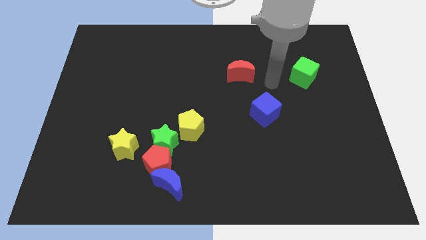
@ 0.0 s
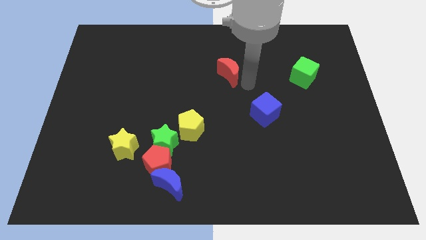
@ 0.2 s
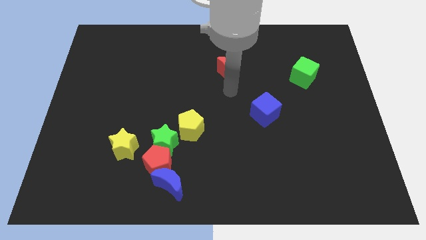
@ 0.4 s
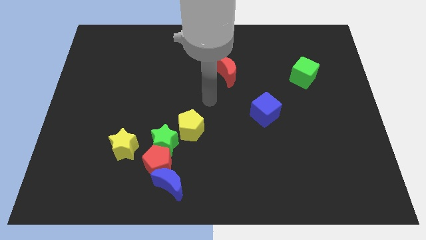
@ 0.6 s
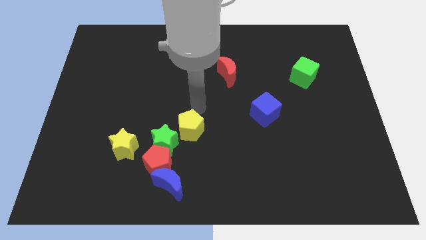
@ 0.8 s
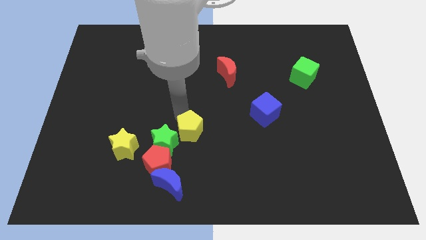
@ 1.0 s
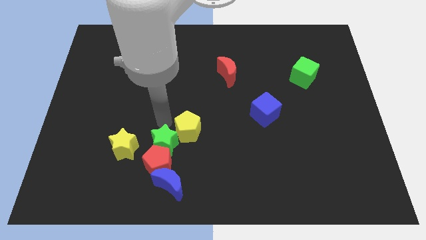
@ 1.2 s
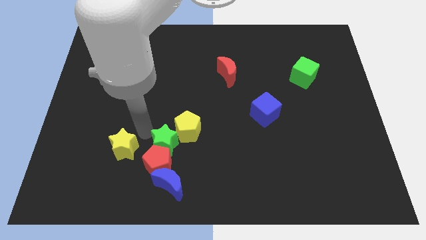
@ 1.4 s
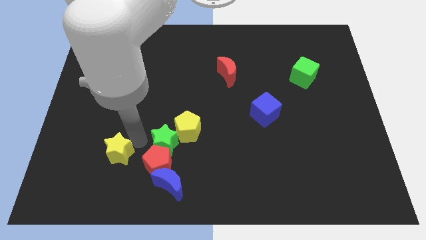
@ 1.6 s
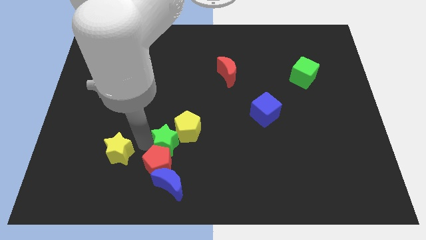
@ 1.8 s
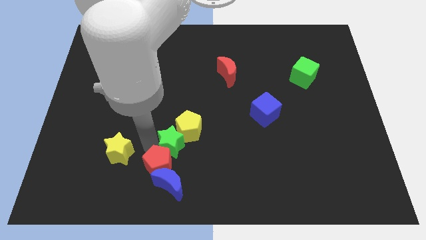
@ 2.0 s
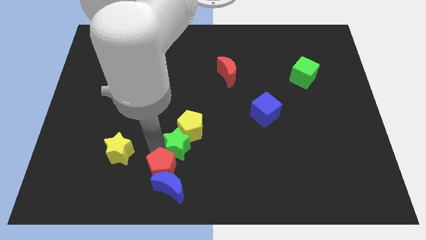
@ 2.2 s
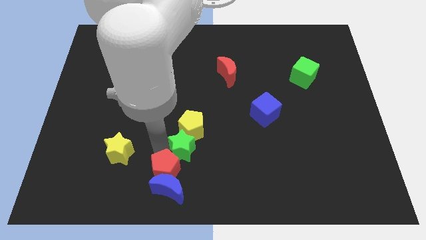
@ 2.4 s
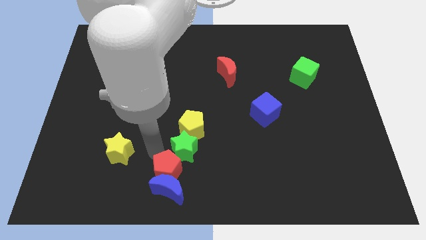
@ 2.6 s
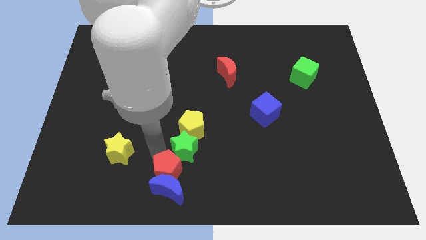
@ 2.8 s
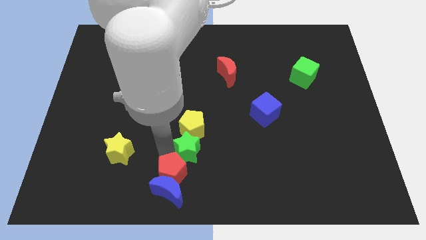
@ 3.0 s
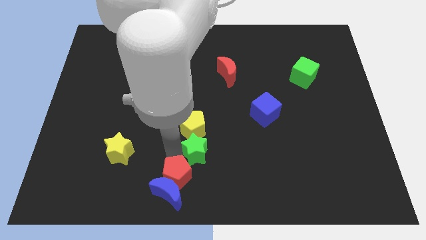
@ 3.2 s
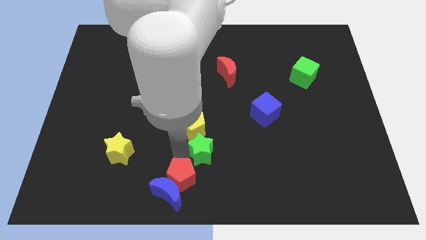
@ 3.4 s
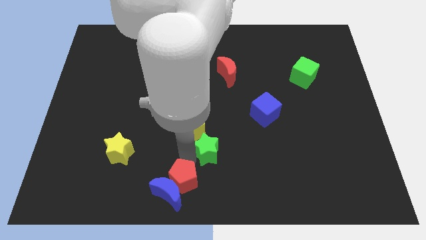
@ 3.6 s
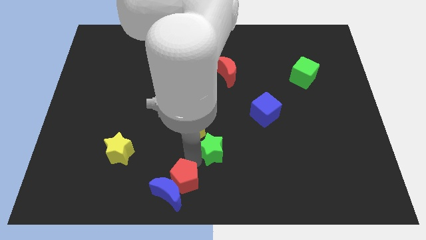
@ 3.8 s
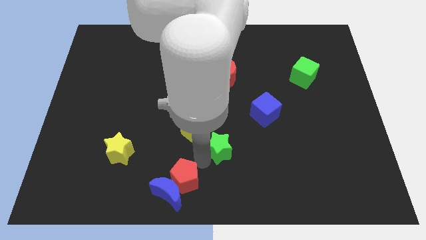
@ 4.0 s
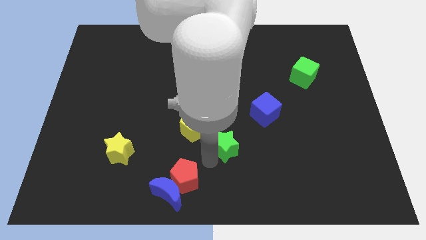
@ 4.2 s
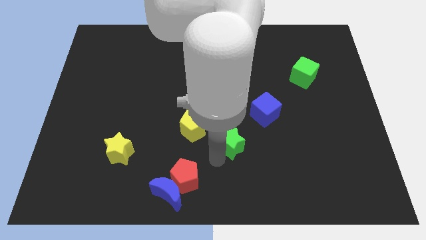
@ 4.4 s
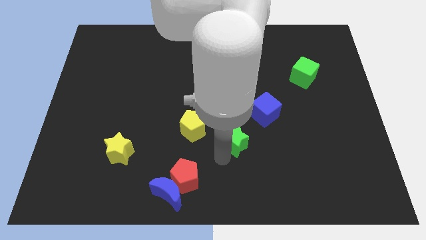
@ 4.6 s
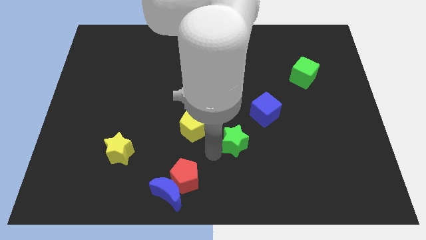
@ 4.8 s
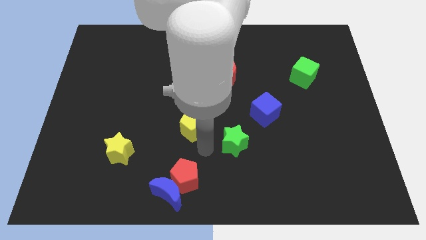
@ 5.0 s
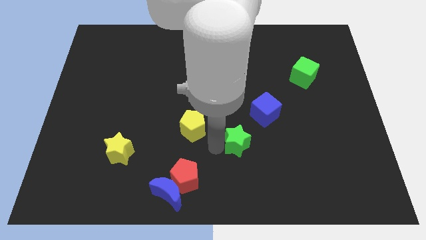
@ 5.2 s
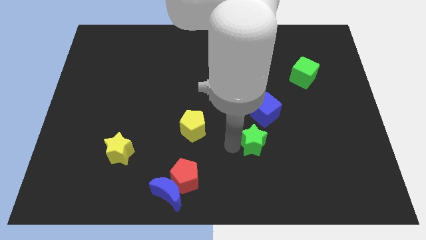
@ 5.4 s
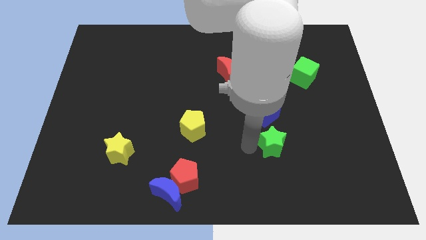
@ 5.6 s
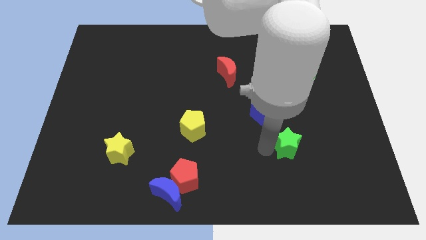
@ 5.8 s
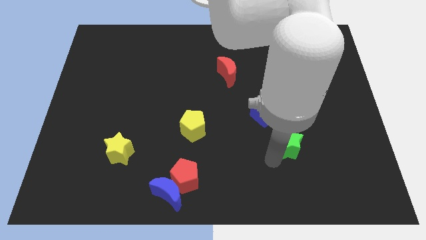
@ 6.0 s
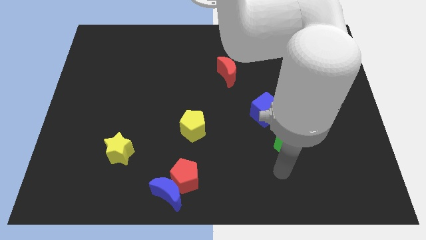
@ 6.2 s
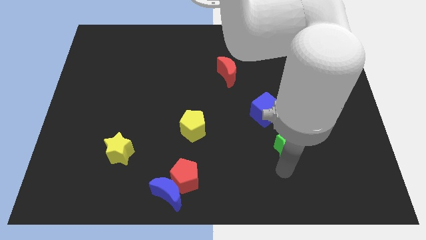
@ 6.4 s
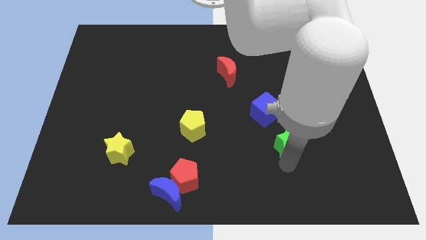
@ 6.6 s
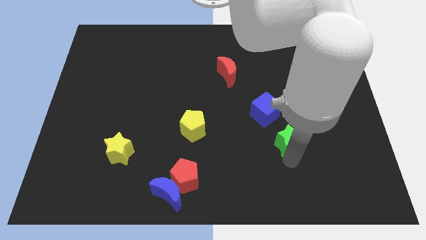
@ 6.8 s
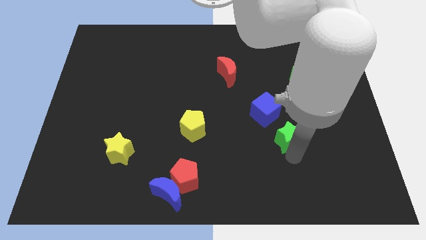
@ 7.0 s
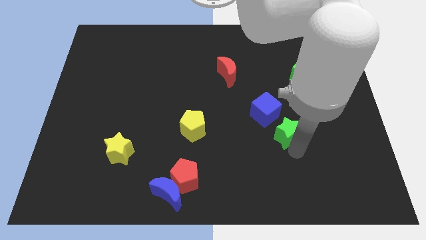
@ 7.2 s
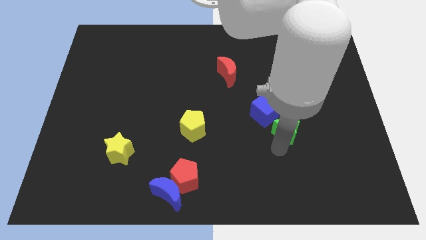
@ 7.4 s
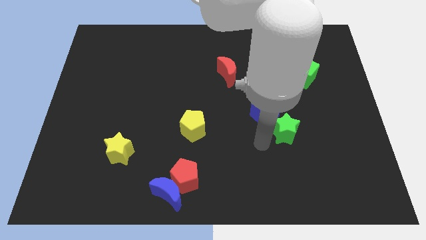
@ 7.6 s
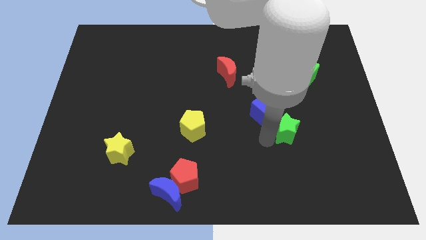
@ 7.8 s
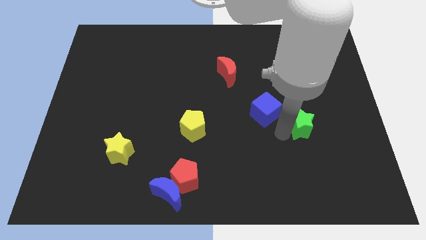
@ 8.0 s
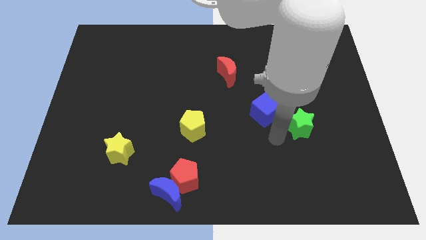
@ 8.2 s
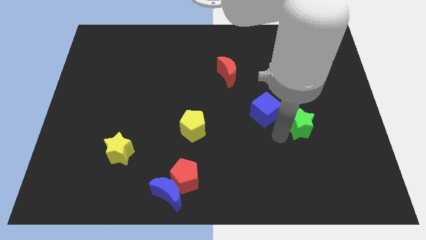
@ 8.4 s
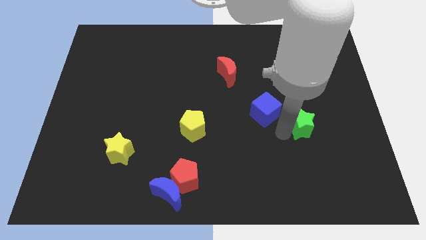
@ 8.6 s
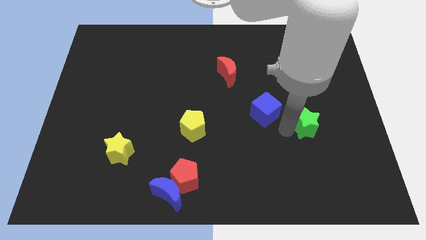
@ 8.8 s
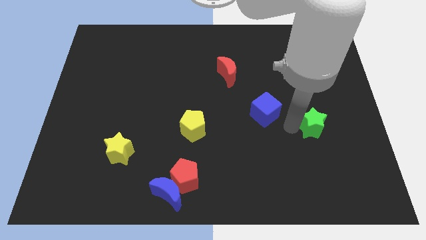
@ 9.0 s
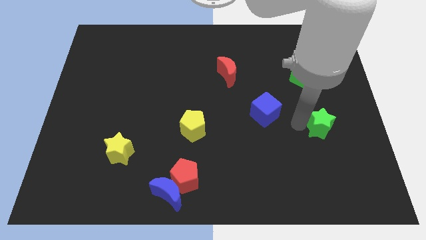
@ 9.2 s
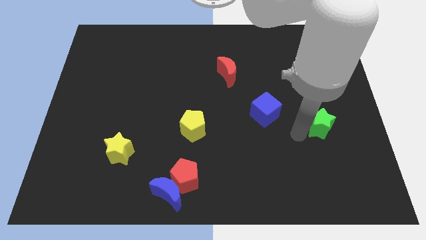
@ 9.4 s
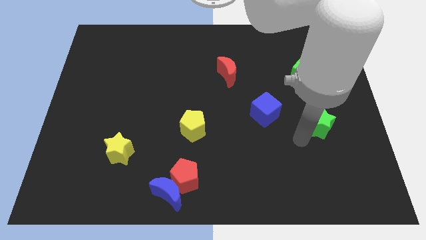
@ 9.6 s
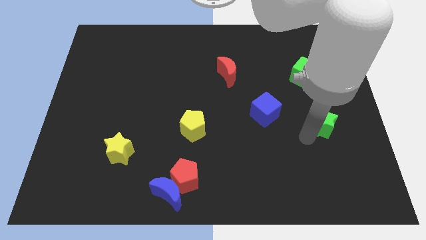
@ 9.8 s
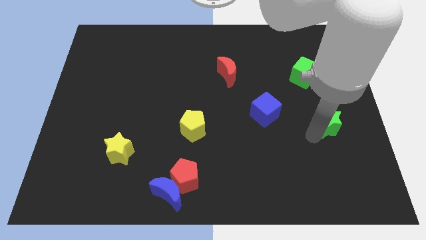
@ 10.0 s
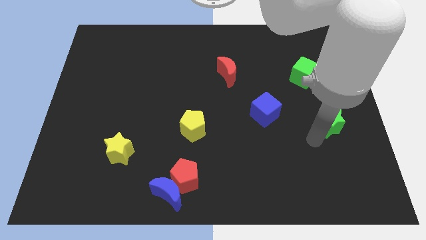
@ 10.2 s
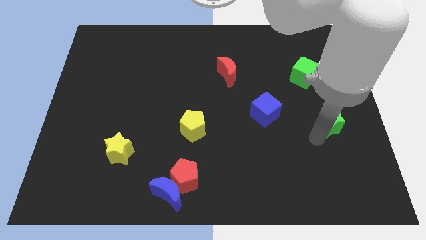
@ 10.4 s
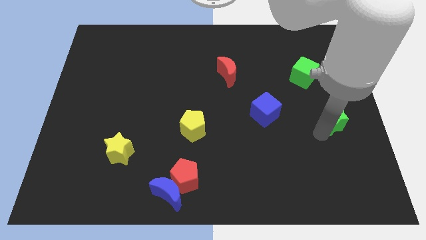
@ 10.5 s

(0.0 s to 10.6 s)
put the green star to the right side
